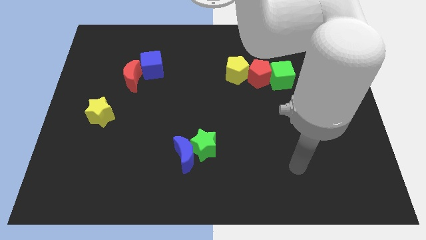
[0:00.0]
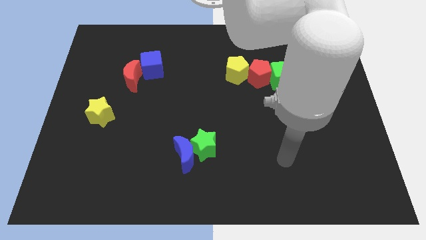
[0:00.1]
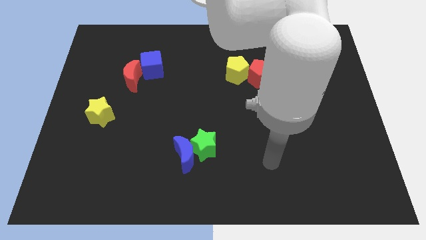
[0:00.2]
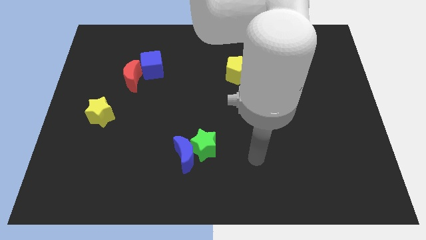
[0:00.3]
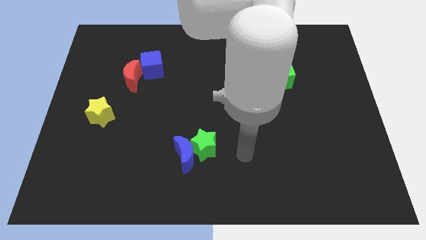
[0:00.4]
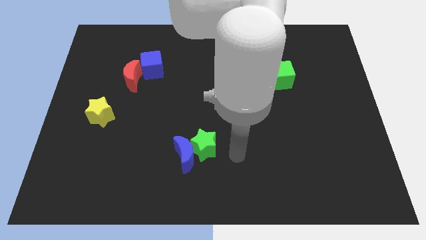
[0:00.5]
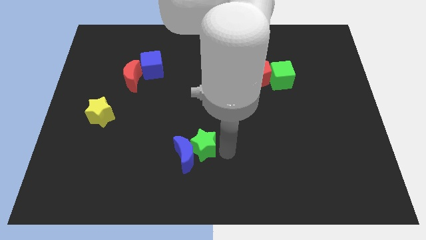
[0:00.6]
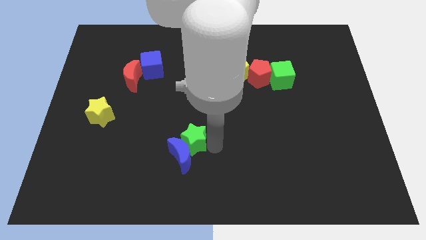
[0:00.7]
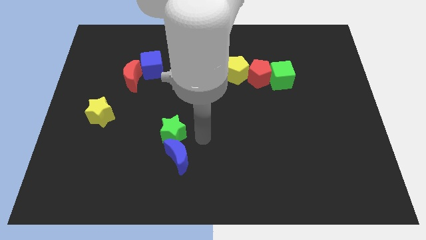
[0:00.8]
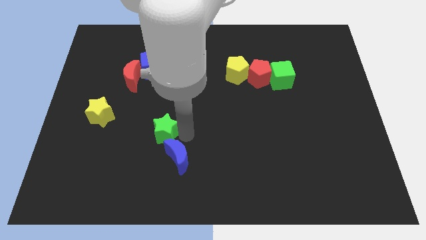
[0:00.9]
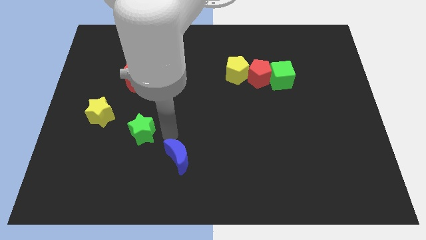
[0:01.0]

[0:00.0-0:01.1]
move the blue moon away from the green star

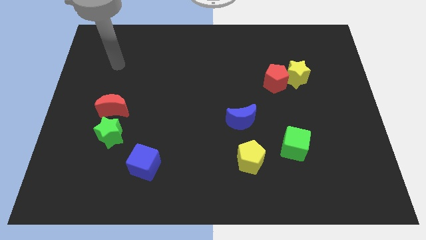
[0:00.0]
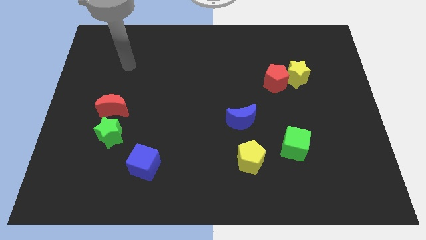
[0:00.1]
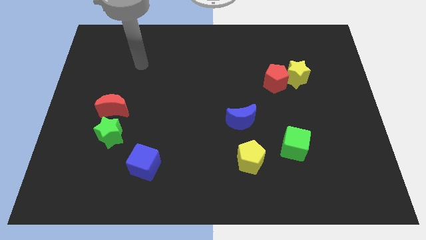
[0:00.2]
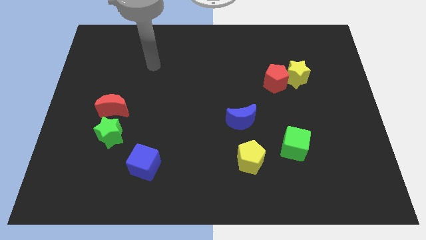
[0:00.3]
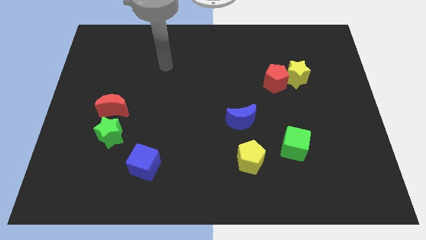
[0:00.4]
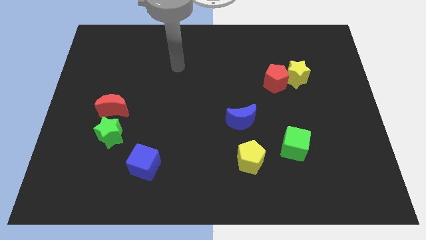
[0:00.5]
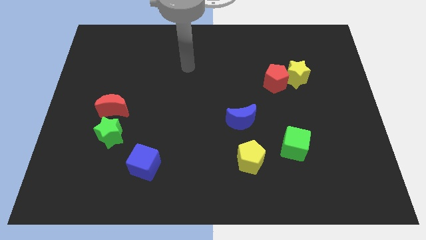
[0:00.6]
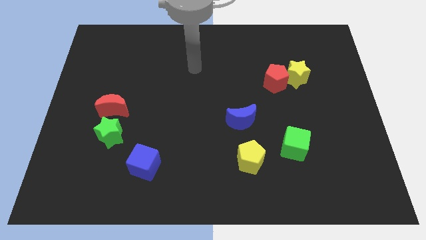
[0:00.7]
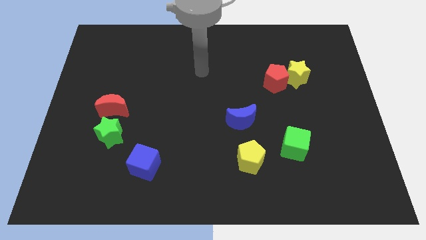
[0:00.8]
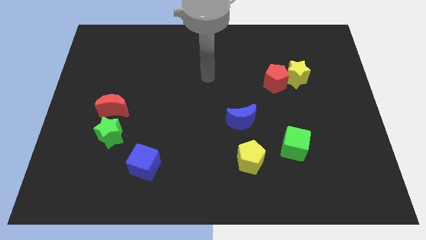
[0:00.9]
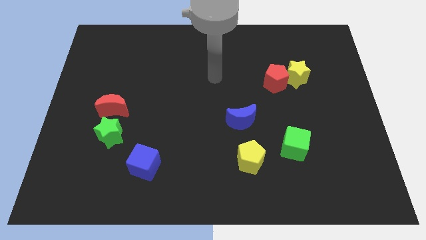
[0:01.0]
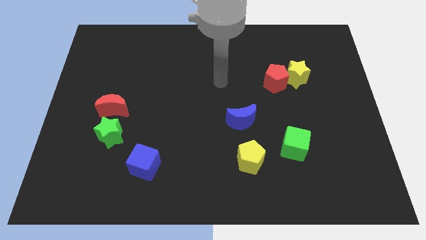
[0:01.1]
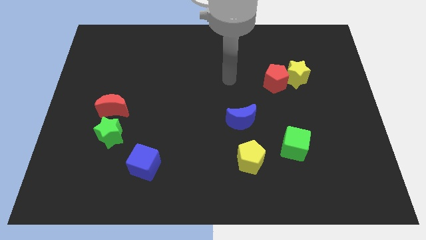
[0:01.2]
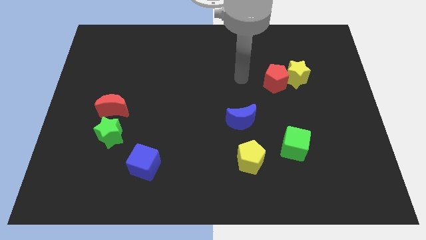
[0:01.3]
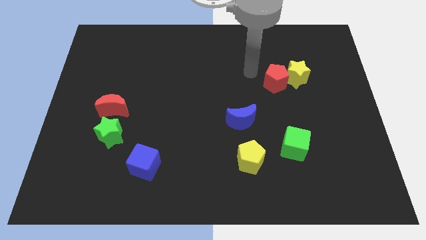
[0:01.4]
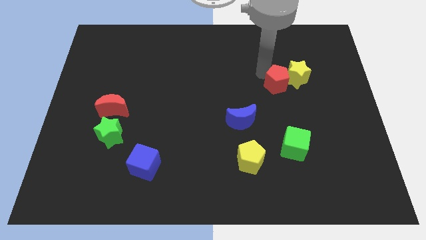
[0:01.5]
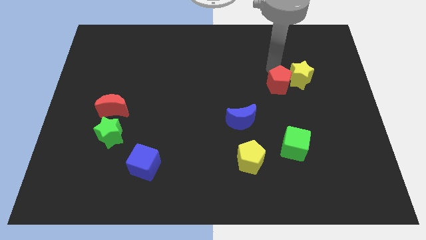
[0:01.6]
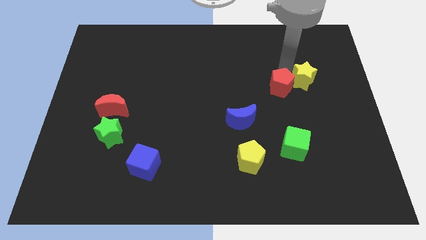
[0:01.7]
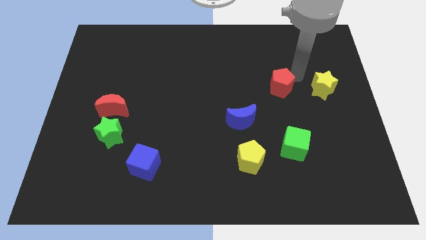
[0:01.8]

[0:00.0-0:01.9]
pull the red pentagon apart from the yellow star

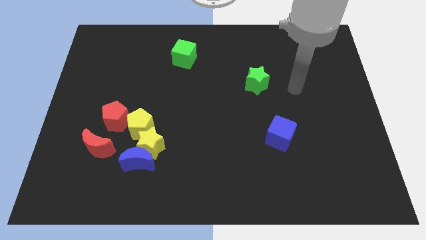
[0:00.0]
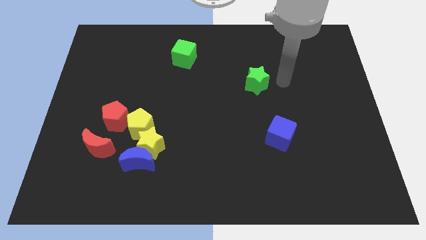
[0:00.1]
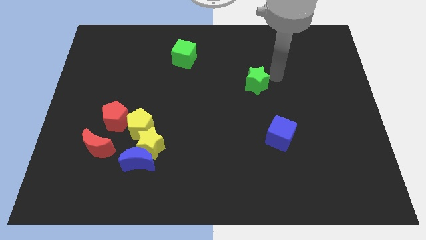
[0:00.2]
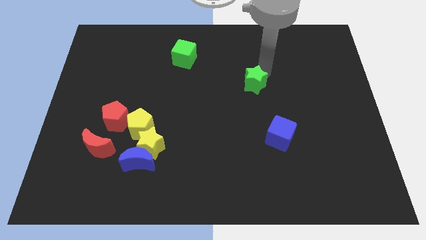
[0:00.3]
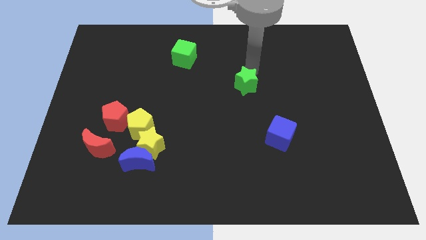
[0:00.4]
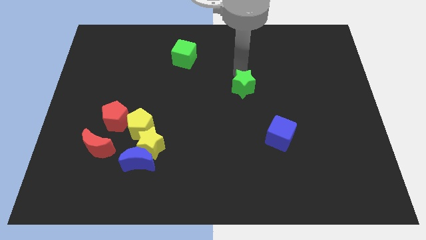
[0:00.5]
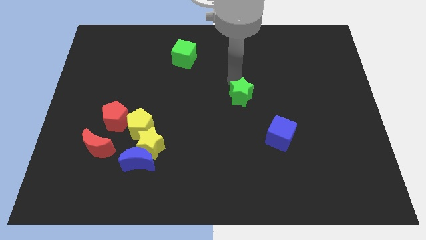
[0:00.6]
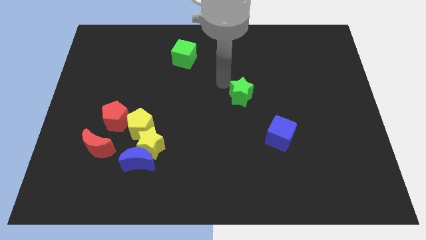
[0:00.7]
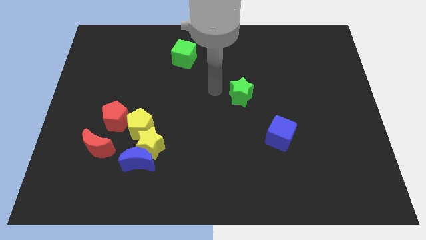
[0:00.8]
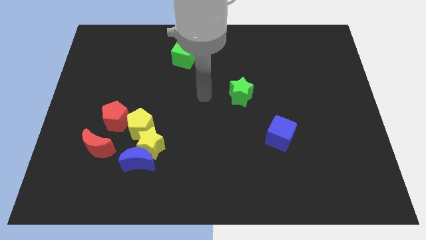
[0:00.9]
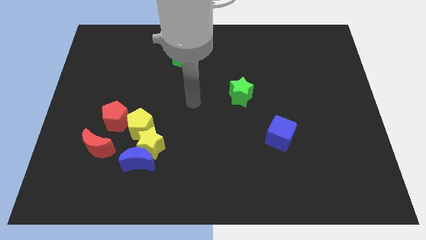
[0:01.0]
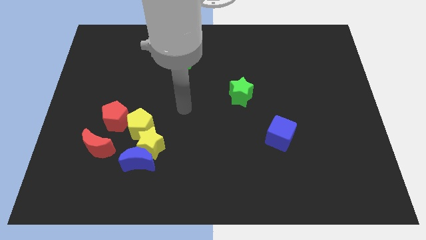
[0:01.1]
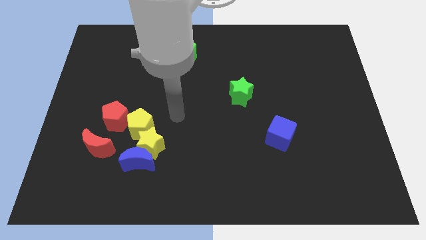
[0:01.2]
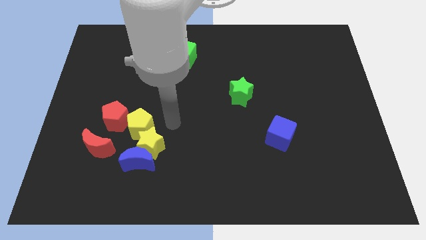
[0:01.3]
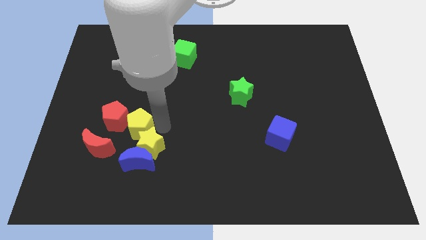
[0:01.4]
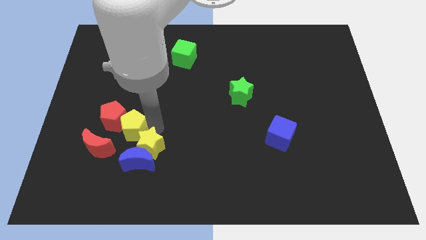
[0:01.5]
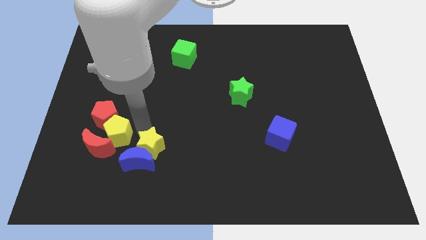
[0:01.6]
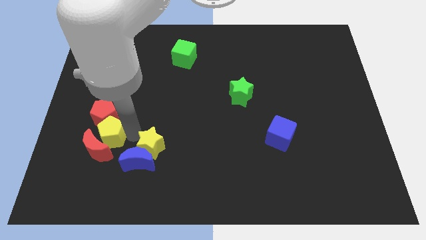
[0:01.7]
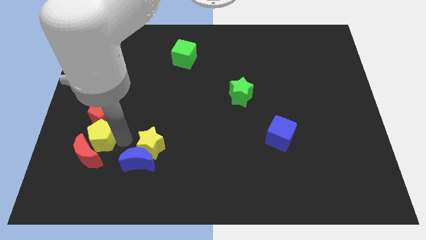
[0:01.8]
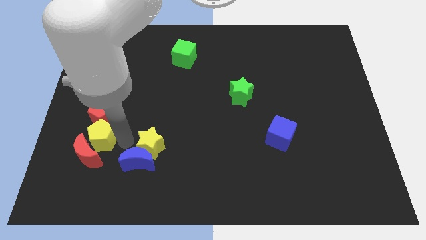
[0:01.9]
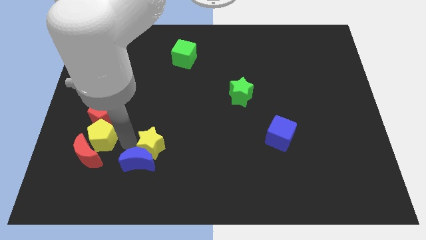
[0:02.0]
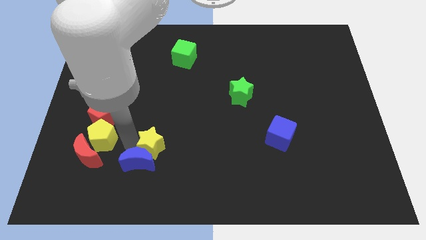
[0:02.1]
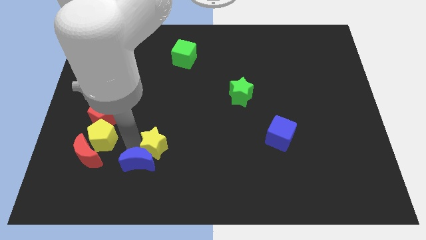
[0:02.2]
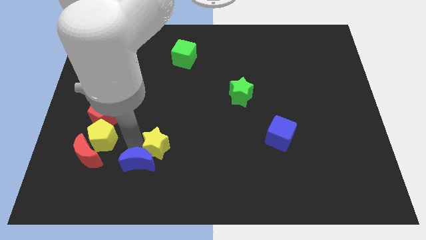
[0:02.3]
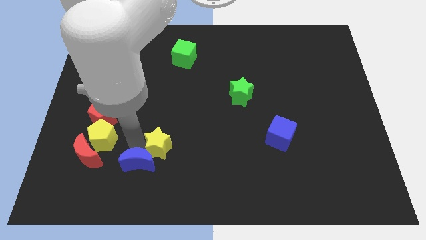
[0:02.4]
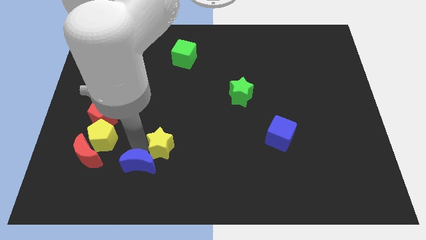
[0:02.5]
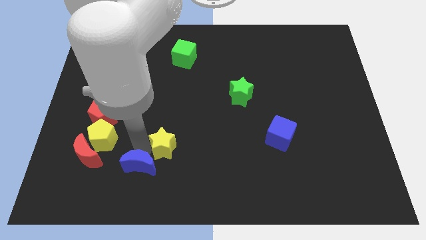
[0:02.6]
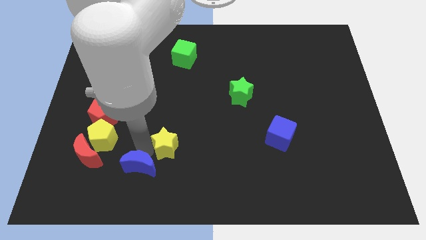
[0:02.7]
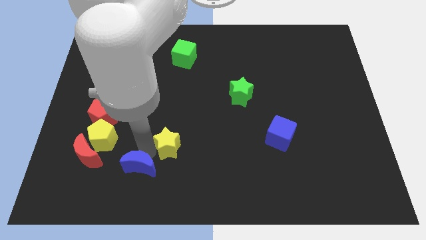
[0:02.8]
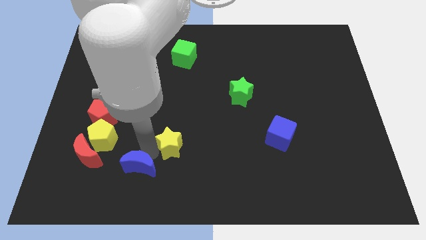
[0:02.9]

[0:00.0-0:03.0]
pull the yellow star apart from the blue moon and yellow pentagon

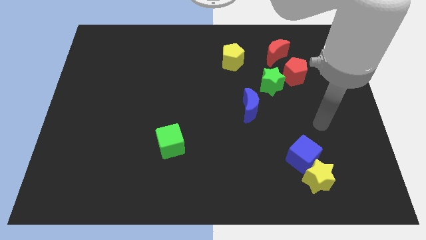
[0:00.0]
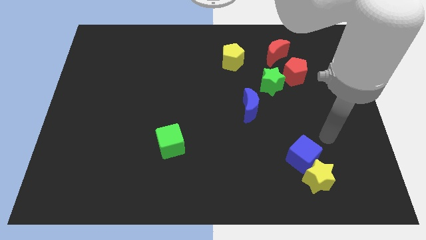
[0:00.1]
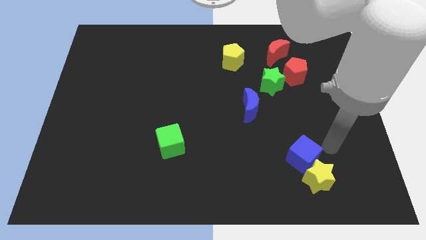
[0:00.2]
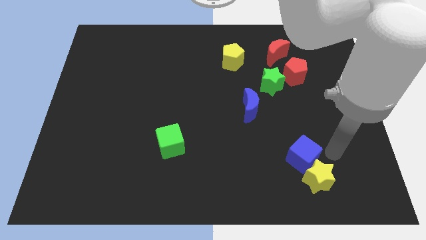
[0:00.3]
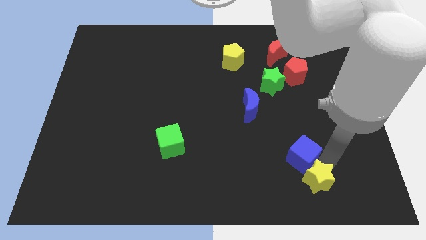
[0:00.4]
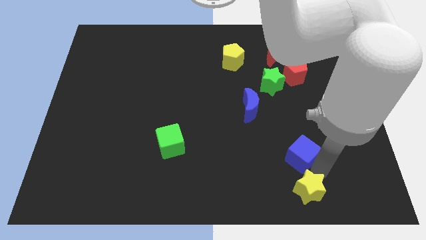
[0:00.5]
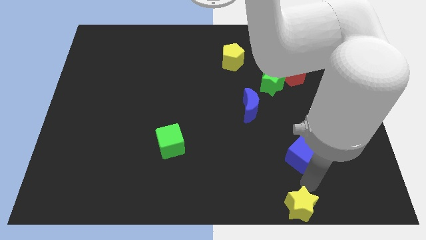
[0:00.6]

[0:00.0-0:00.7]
move the blue cube away from the yellow star

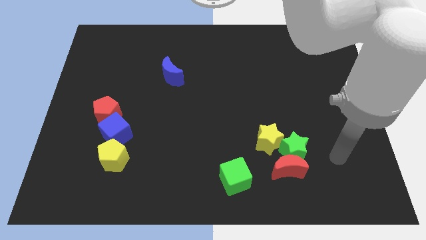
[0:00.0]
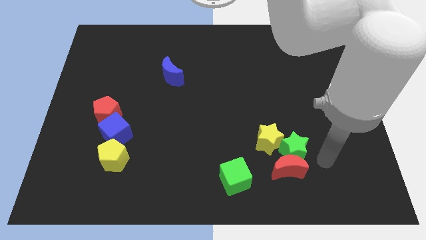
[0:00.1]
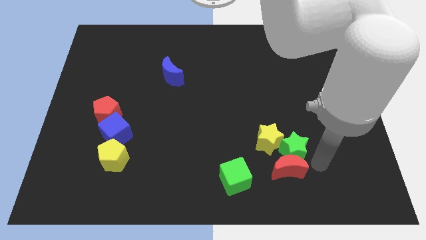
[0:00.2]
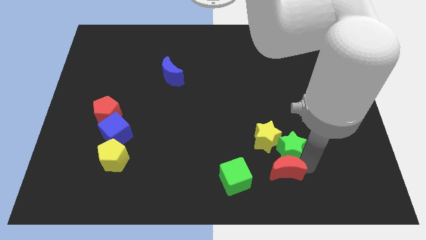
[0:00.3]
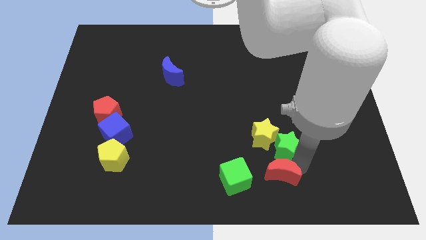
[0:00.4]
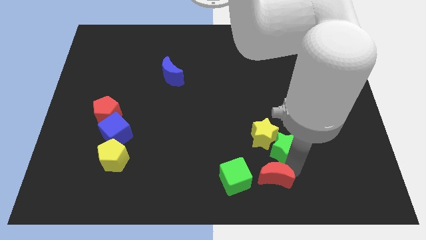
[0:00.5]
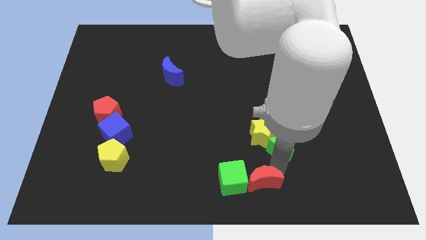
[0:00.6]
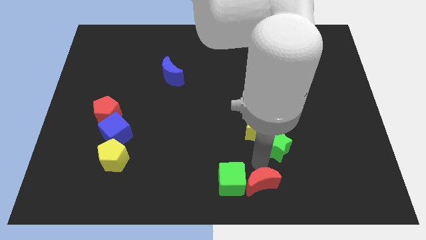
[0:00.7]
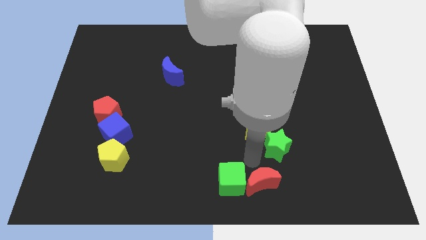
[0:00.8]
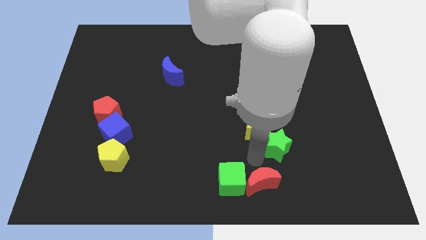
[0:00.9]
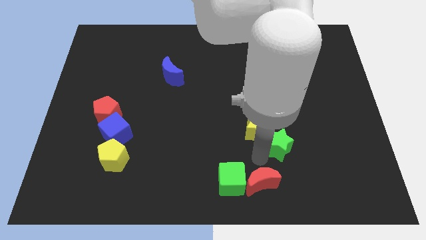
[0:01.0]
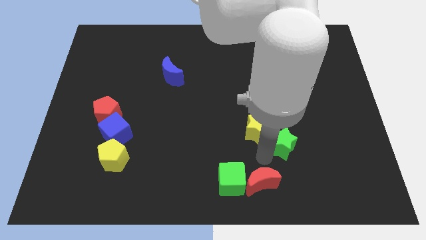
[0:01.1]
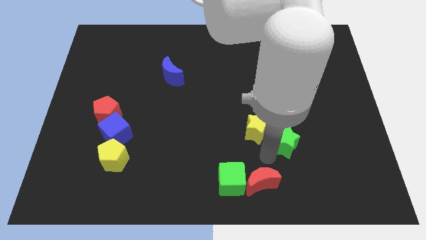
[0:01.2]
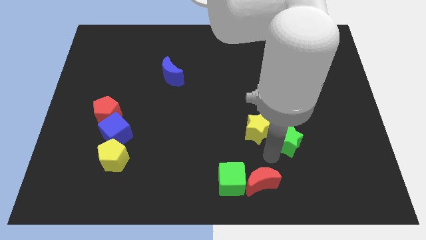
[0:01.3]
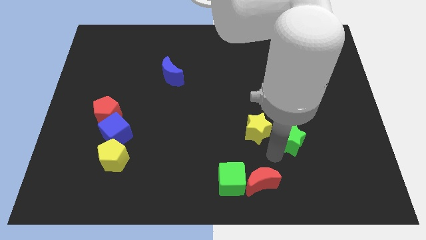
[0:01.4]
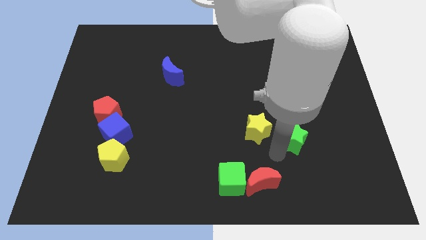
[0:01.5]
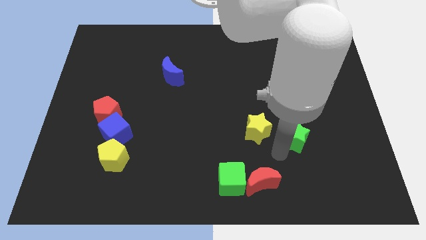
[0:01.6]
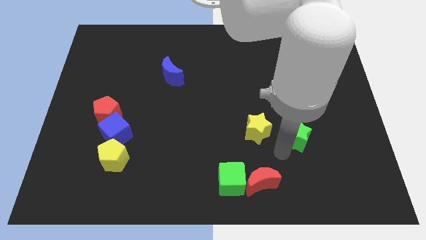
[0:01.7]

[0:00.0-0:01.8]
move the green star away from the red moon and yellow star

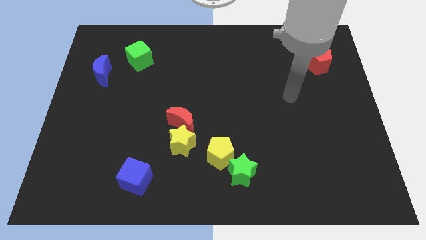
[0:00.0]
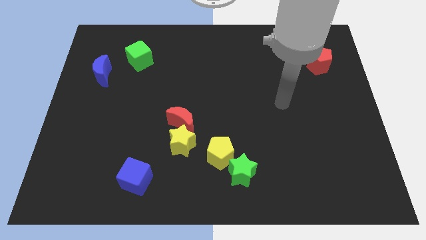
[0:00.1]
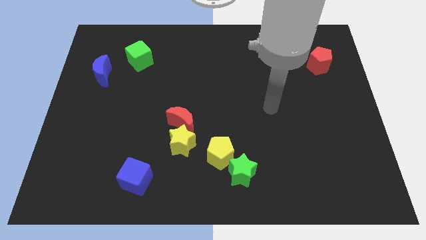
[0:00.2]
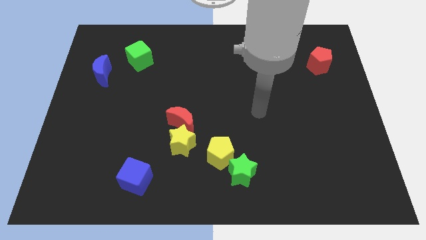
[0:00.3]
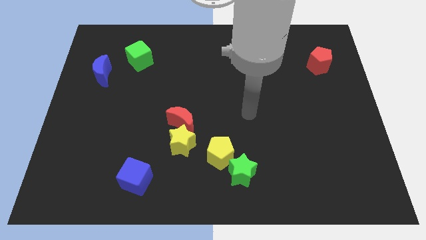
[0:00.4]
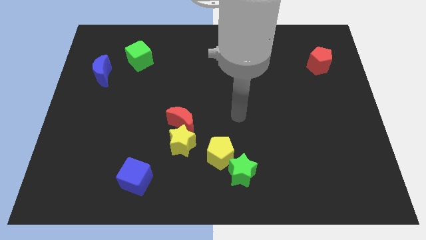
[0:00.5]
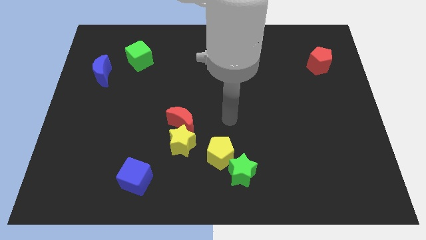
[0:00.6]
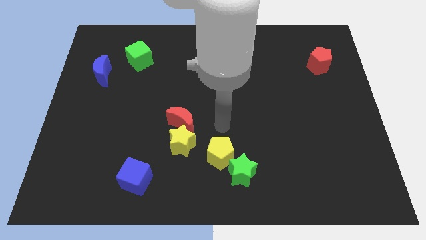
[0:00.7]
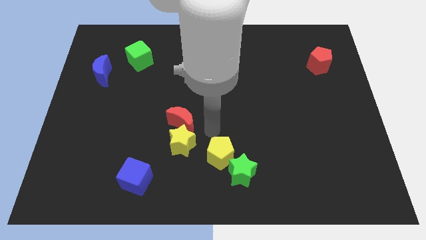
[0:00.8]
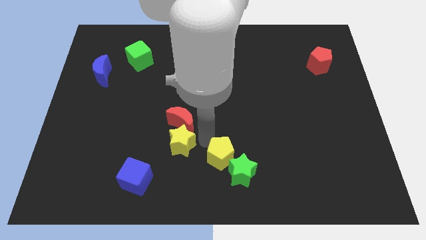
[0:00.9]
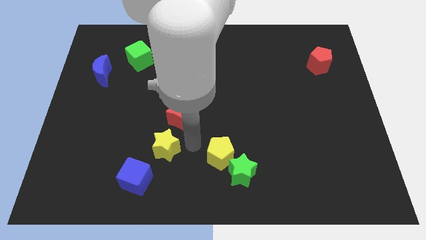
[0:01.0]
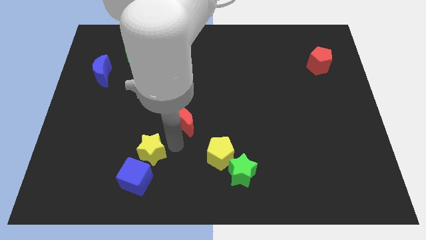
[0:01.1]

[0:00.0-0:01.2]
separate the red moon from the yellow star
